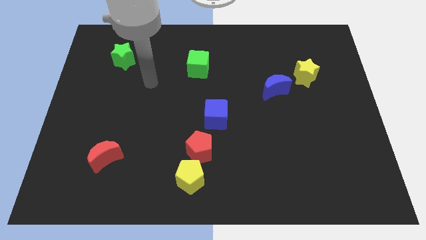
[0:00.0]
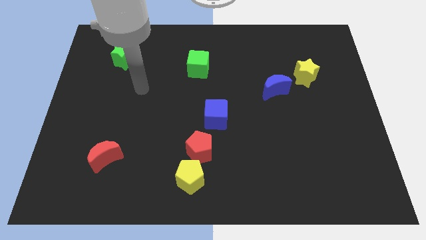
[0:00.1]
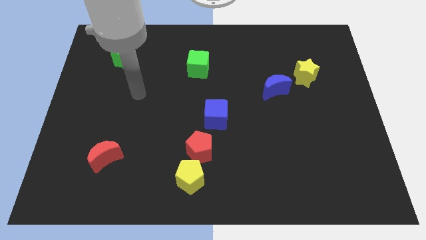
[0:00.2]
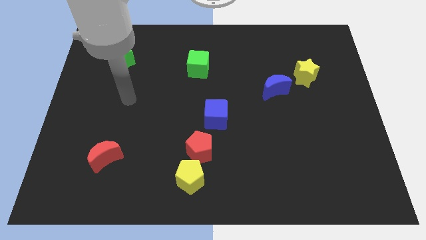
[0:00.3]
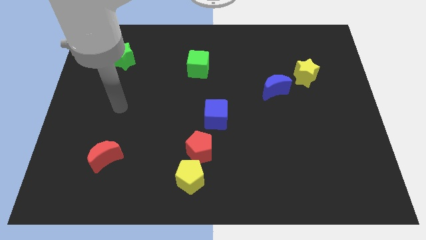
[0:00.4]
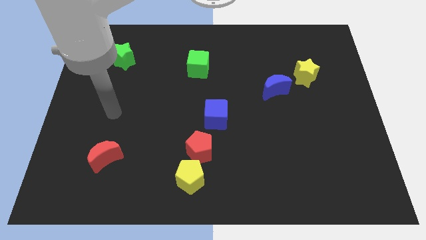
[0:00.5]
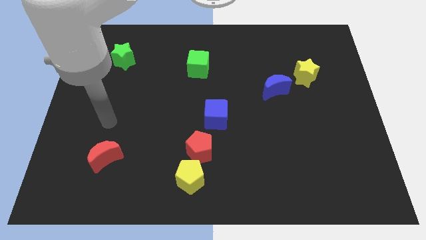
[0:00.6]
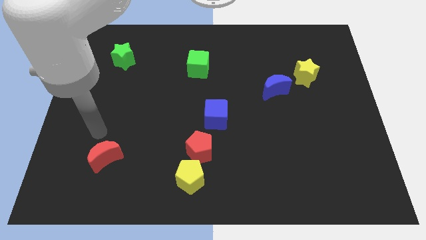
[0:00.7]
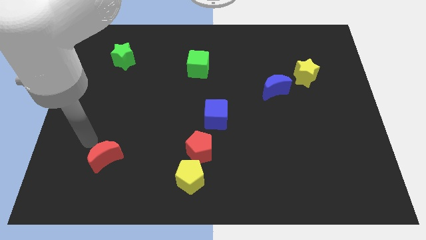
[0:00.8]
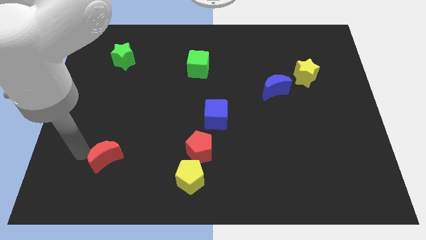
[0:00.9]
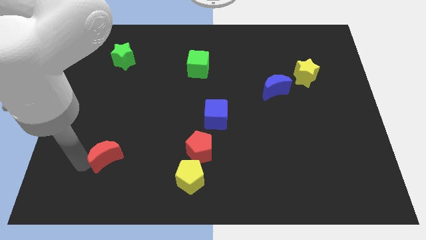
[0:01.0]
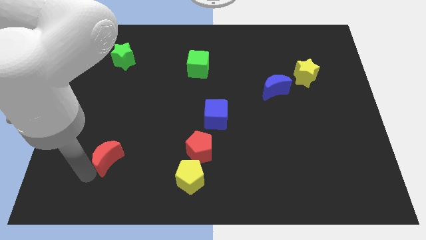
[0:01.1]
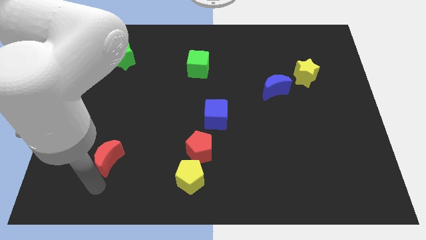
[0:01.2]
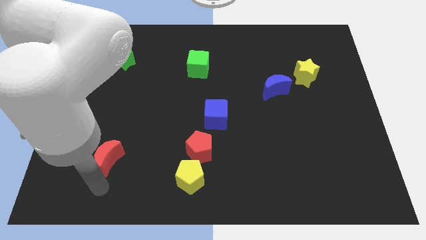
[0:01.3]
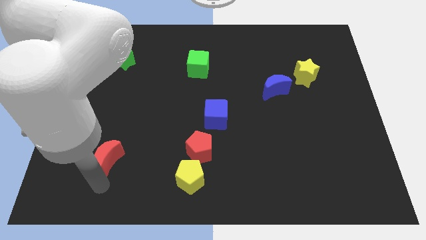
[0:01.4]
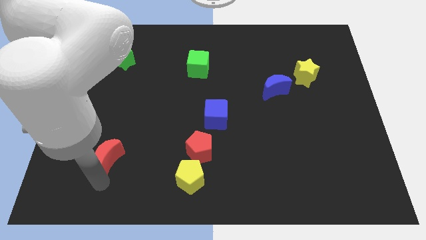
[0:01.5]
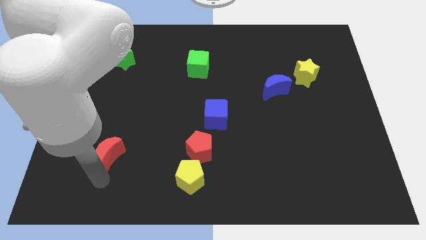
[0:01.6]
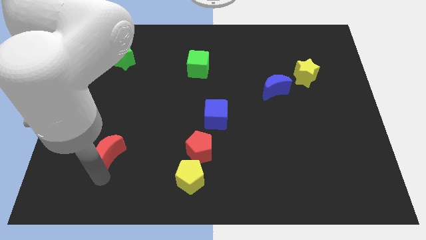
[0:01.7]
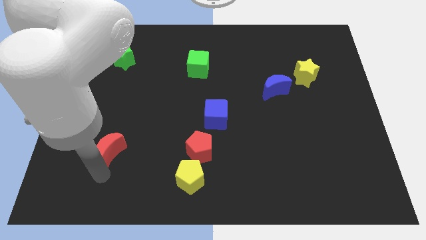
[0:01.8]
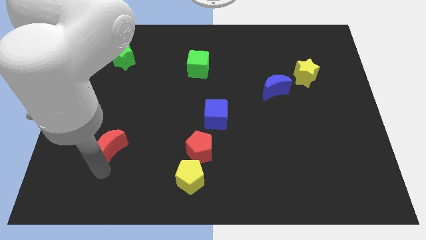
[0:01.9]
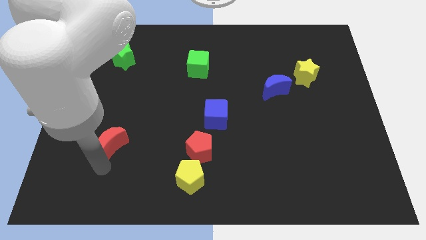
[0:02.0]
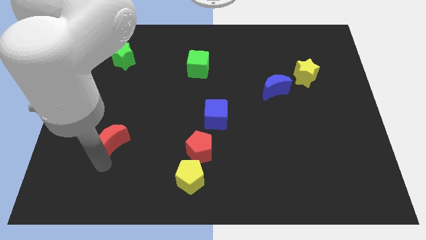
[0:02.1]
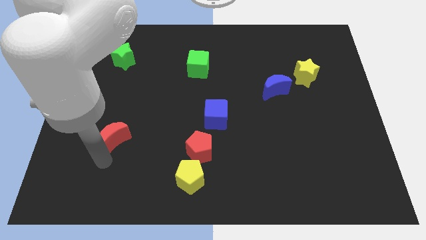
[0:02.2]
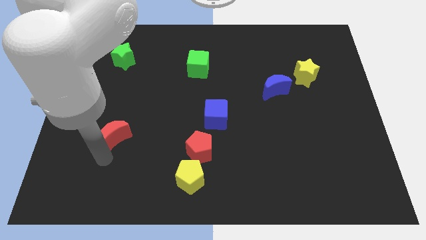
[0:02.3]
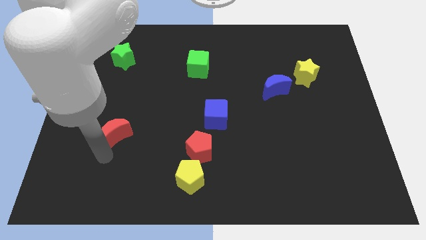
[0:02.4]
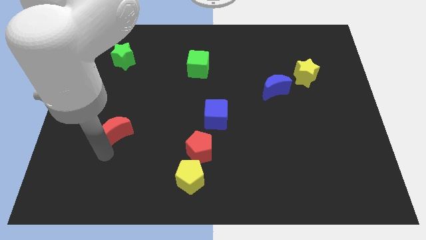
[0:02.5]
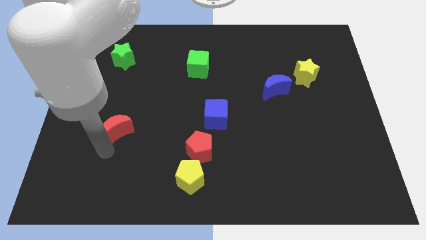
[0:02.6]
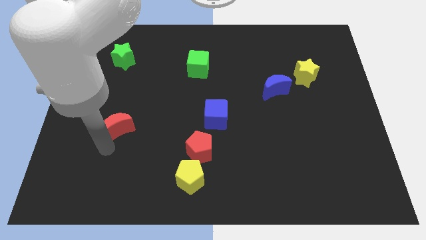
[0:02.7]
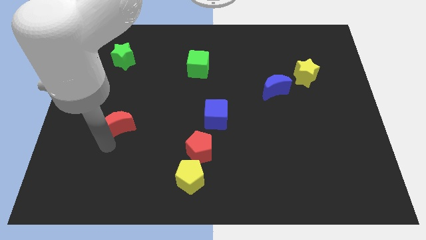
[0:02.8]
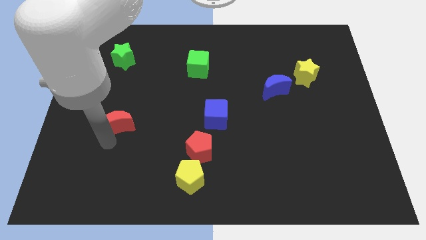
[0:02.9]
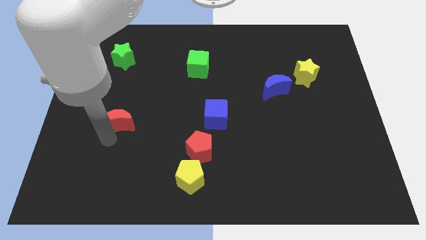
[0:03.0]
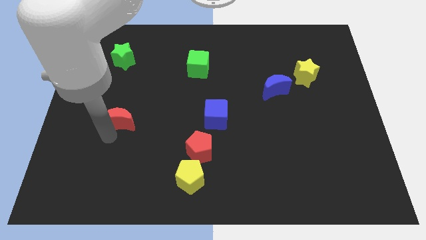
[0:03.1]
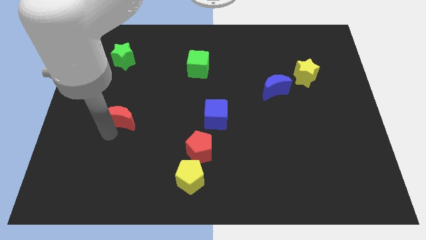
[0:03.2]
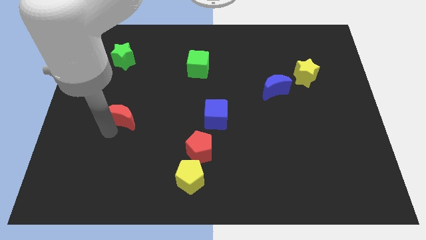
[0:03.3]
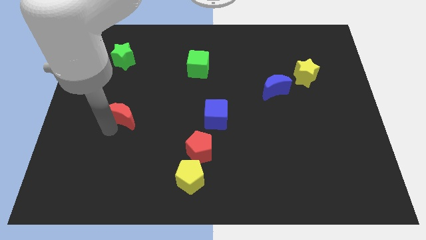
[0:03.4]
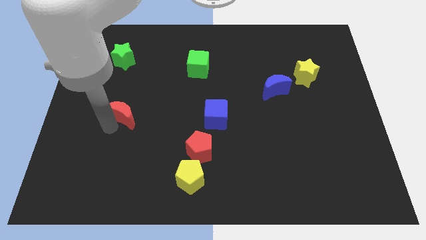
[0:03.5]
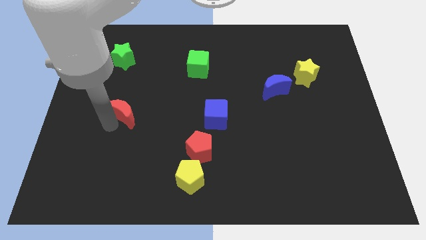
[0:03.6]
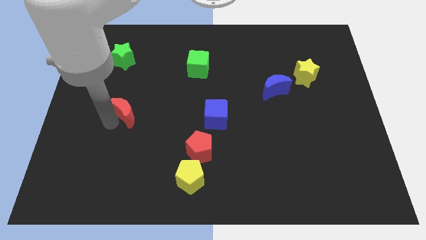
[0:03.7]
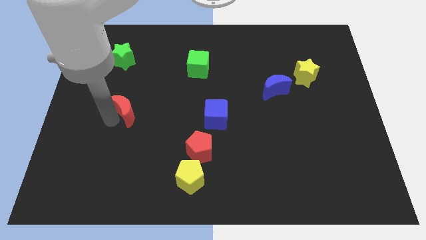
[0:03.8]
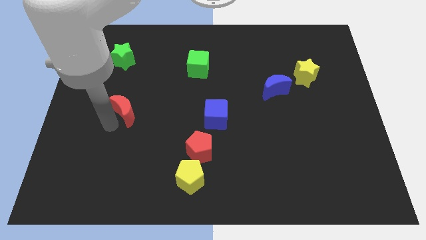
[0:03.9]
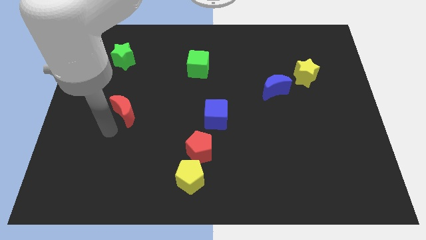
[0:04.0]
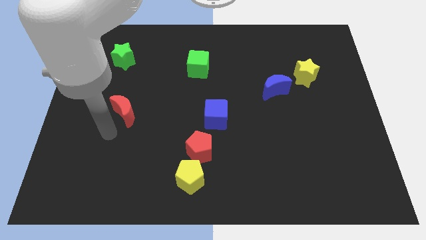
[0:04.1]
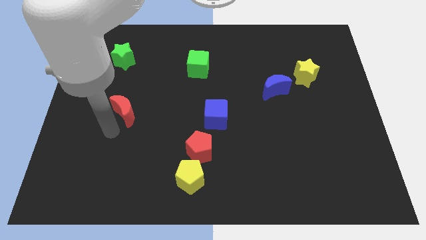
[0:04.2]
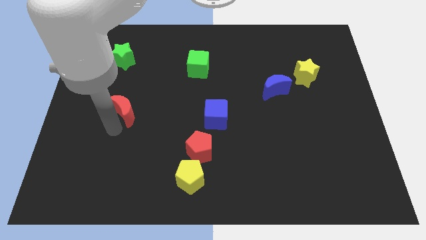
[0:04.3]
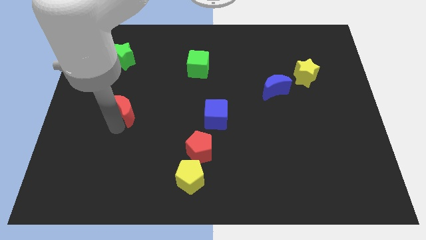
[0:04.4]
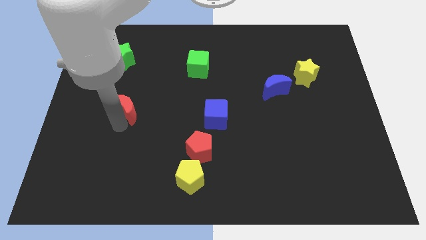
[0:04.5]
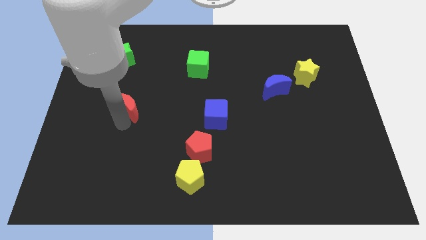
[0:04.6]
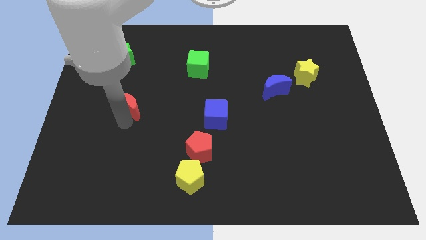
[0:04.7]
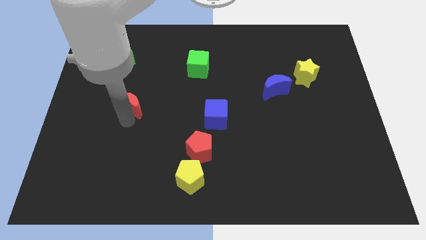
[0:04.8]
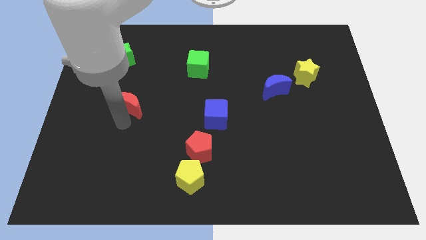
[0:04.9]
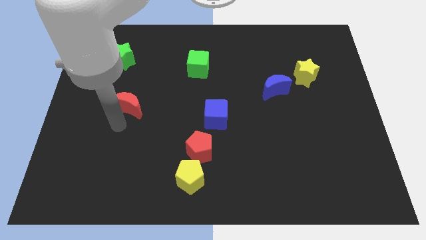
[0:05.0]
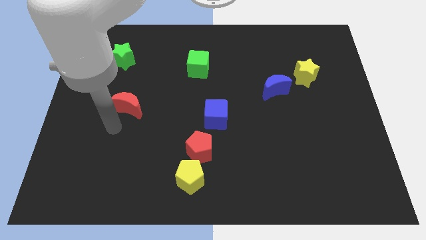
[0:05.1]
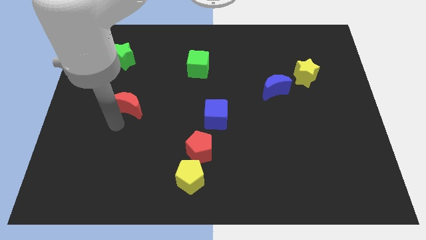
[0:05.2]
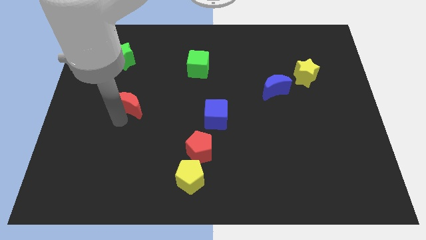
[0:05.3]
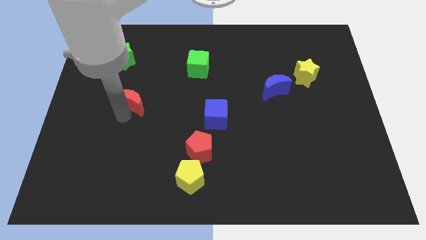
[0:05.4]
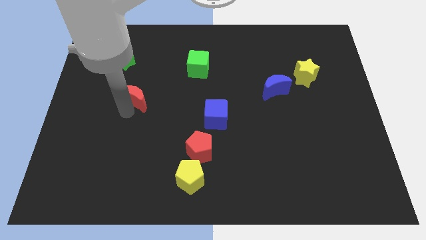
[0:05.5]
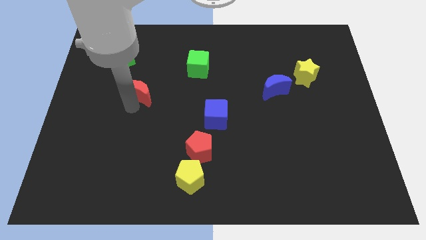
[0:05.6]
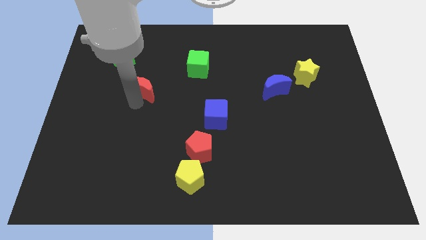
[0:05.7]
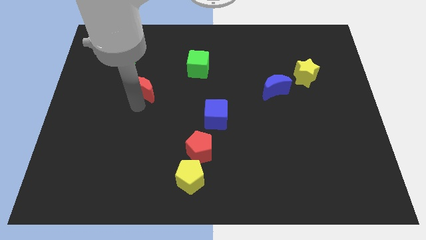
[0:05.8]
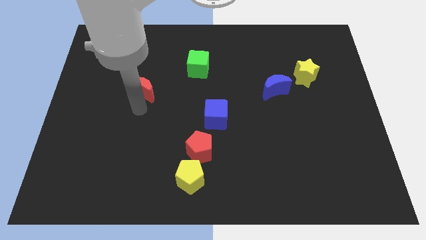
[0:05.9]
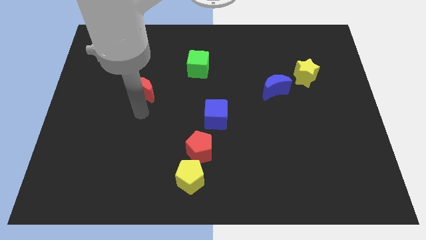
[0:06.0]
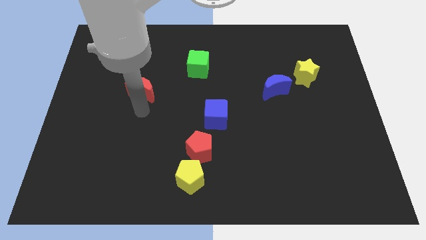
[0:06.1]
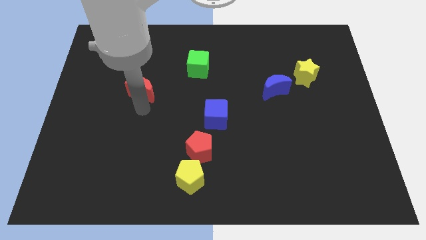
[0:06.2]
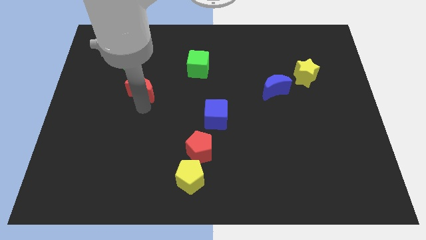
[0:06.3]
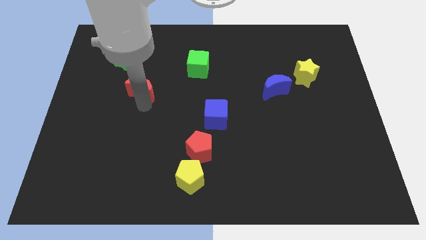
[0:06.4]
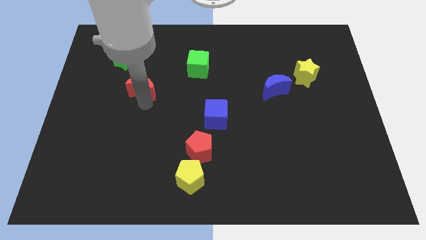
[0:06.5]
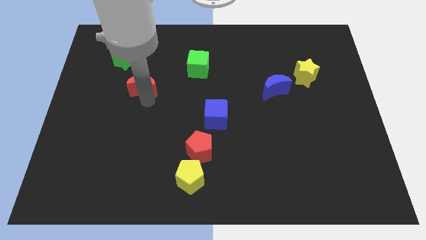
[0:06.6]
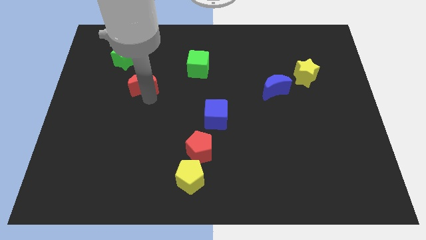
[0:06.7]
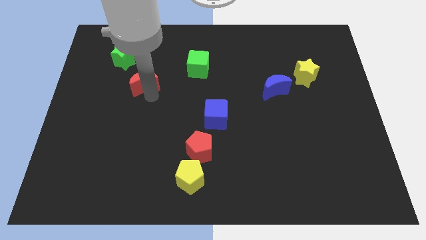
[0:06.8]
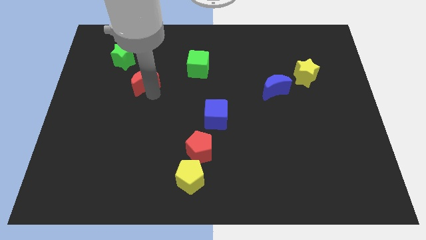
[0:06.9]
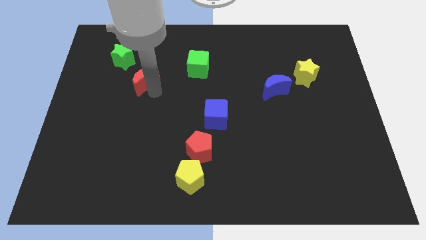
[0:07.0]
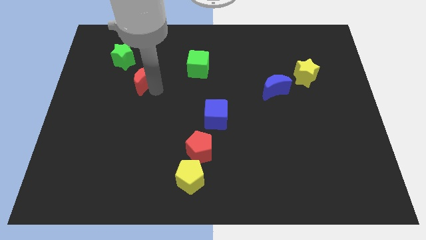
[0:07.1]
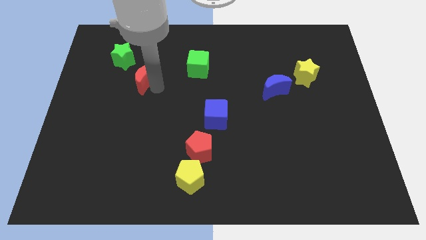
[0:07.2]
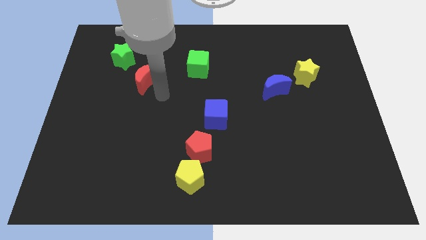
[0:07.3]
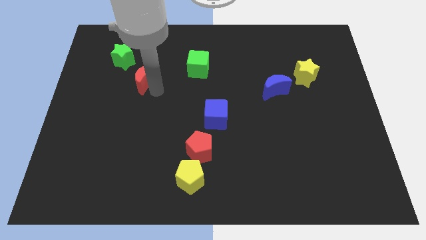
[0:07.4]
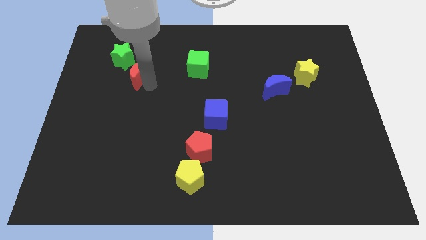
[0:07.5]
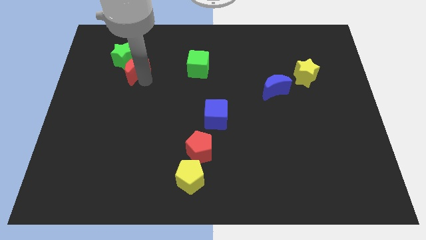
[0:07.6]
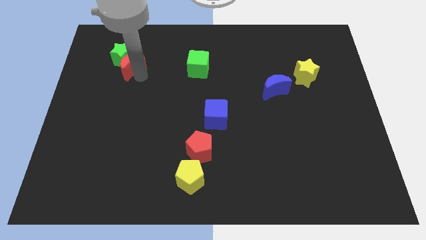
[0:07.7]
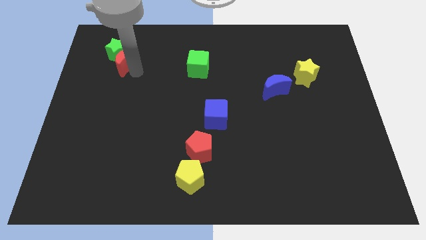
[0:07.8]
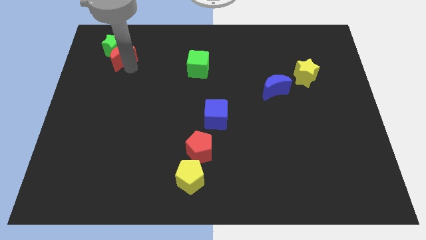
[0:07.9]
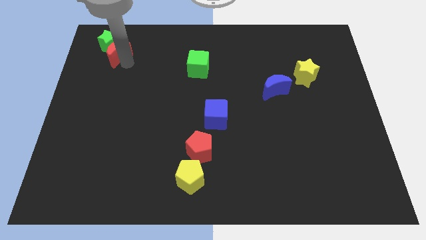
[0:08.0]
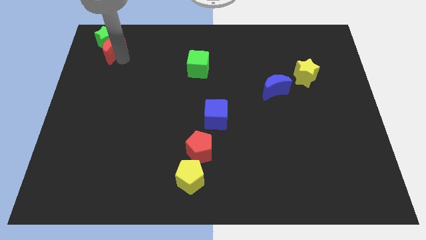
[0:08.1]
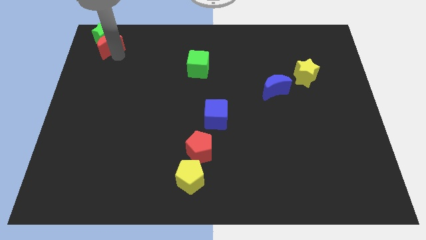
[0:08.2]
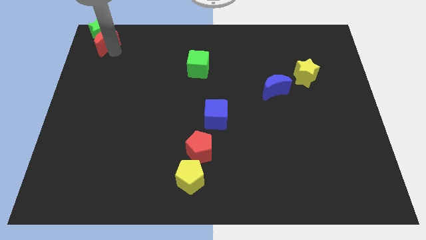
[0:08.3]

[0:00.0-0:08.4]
put the red moon to the top left corner
